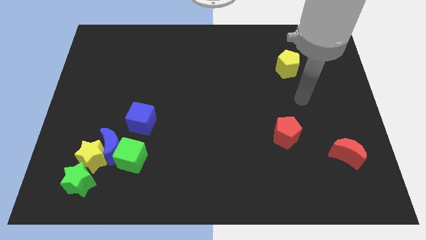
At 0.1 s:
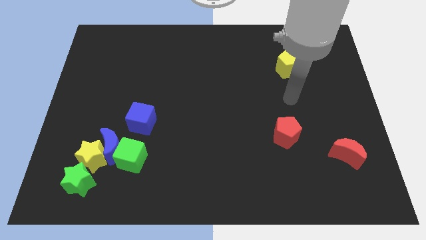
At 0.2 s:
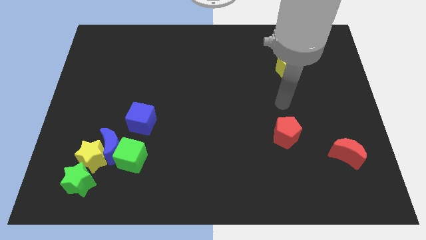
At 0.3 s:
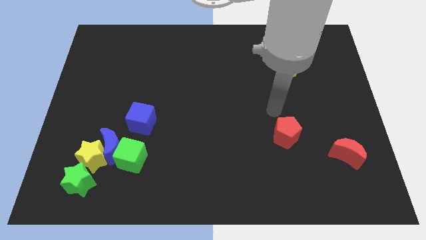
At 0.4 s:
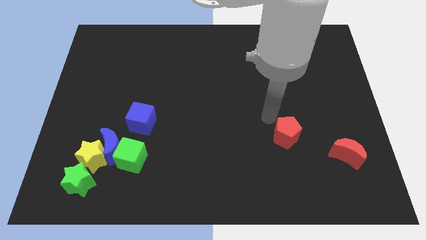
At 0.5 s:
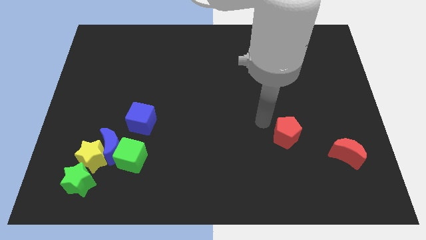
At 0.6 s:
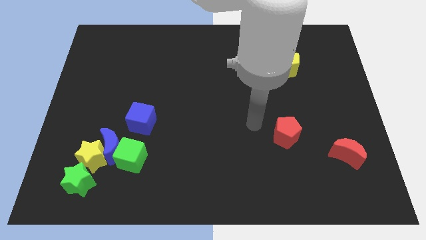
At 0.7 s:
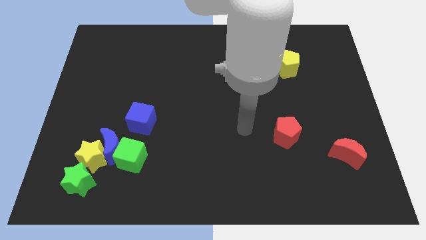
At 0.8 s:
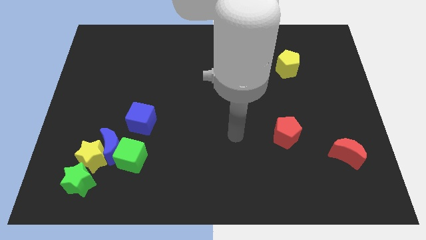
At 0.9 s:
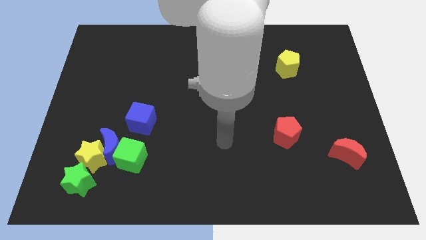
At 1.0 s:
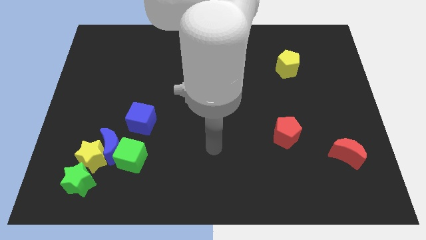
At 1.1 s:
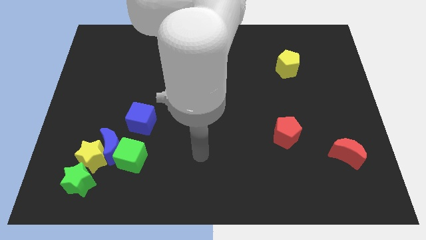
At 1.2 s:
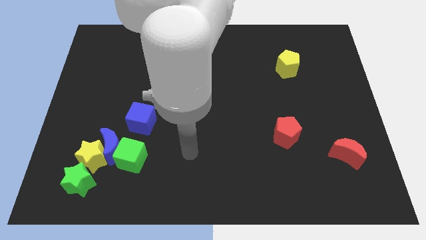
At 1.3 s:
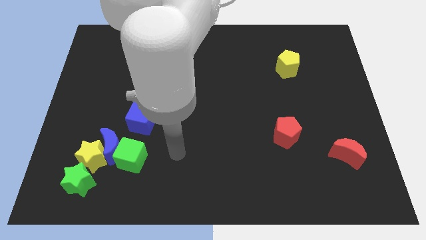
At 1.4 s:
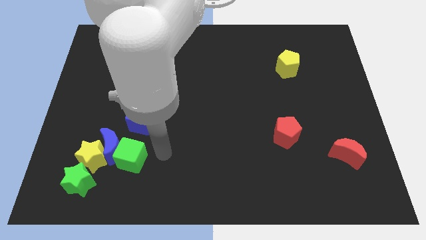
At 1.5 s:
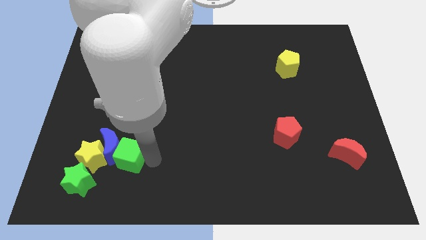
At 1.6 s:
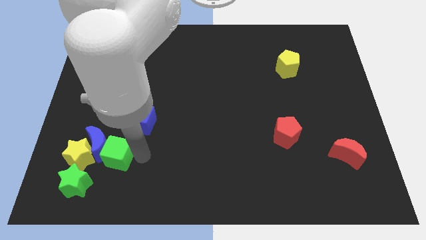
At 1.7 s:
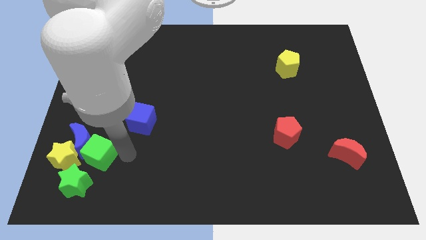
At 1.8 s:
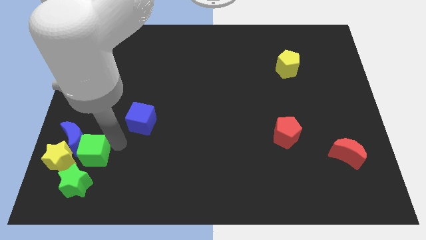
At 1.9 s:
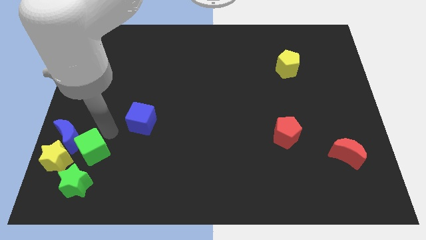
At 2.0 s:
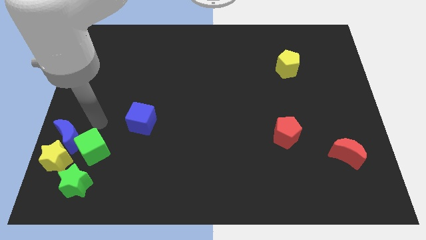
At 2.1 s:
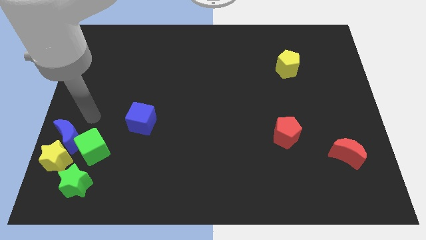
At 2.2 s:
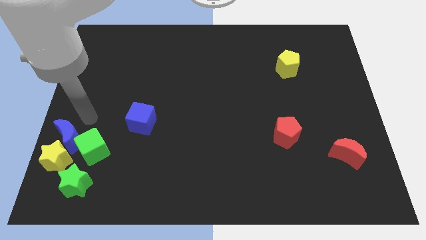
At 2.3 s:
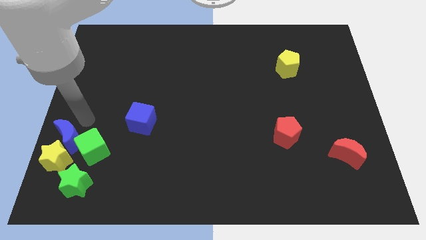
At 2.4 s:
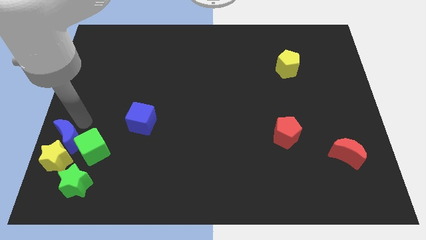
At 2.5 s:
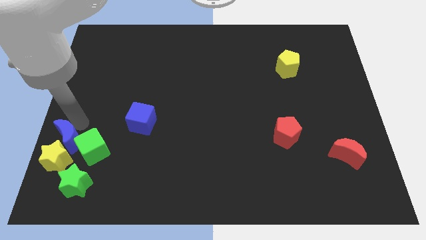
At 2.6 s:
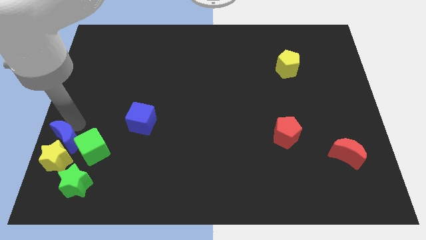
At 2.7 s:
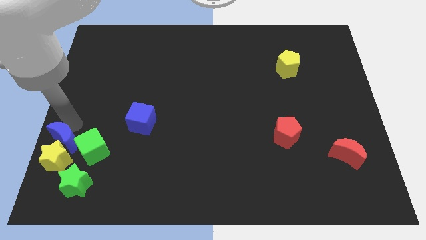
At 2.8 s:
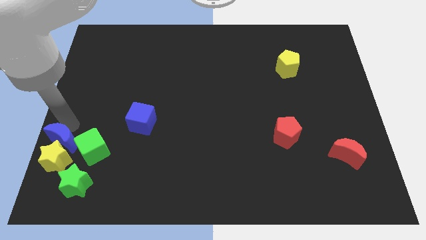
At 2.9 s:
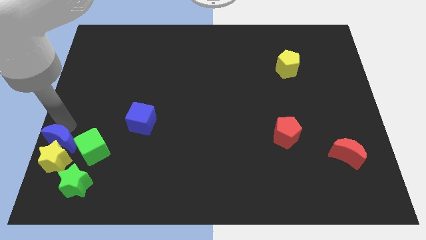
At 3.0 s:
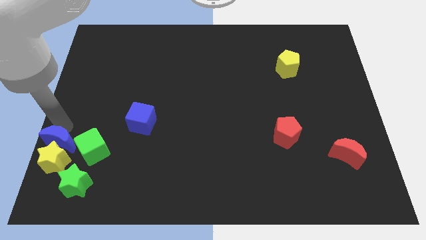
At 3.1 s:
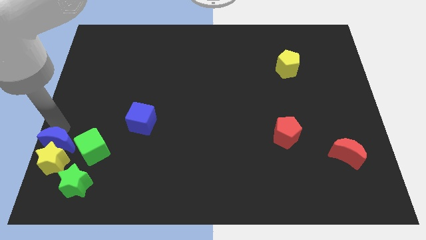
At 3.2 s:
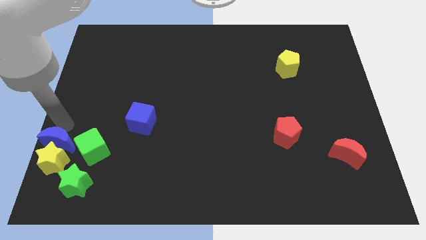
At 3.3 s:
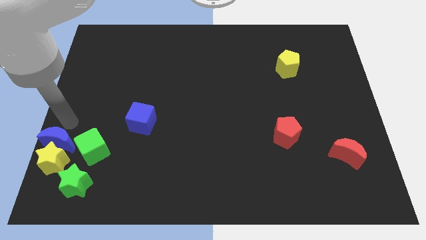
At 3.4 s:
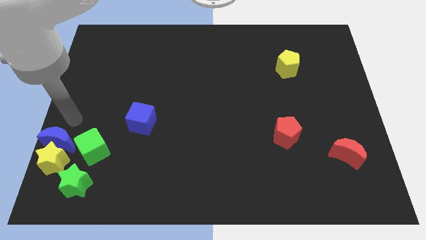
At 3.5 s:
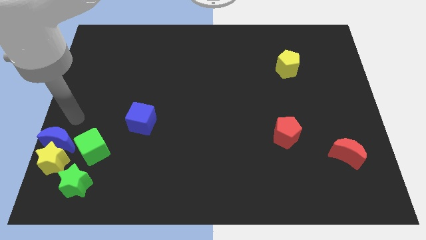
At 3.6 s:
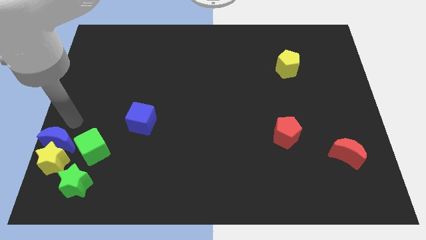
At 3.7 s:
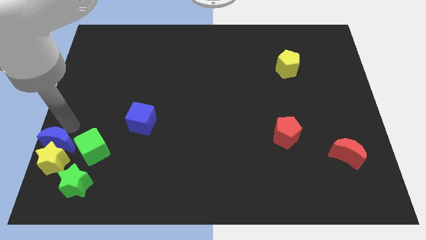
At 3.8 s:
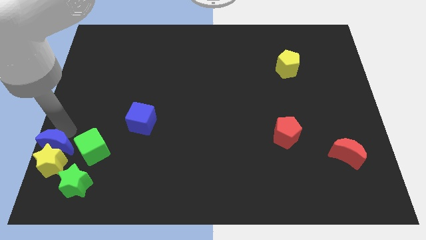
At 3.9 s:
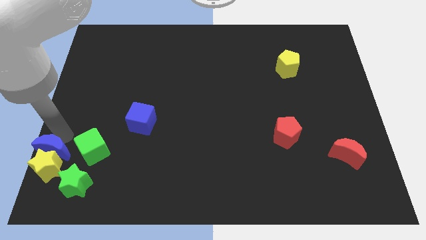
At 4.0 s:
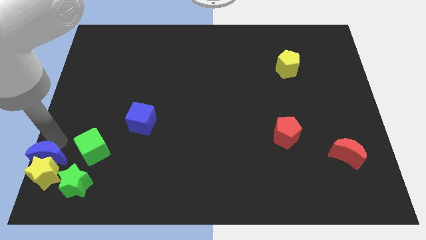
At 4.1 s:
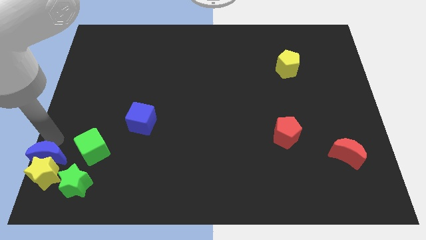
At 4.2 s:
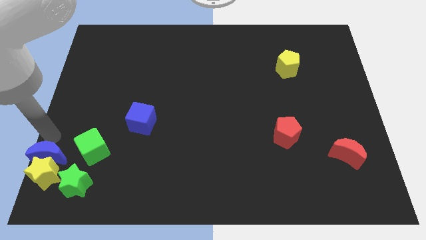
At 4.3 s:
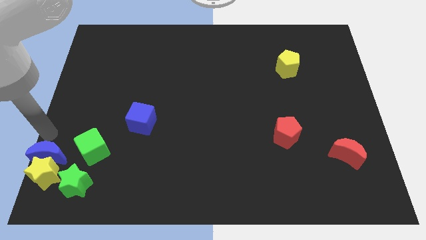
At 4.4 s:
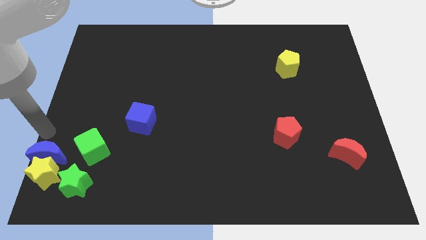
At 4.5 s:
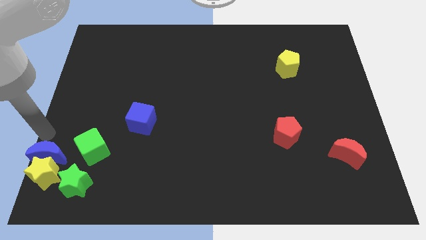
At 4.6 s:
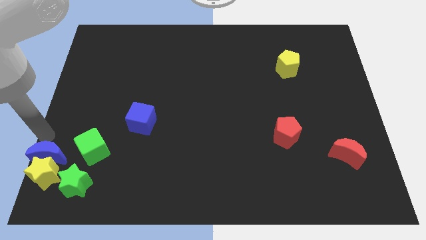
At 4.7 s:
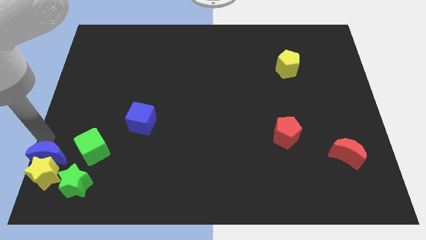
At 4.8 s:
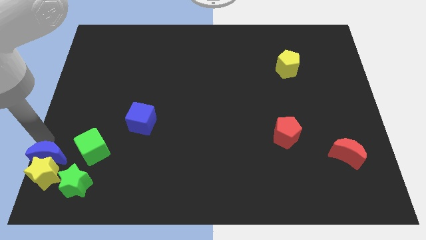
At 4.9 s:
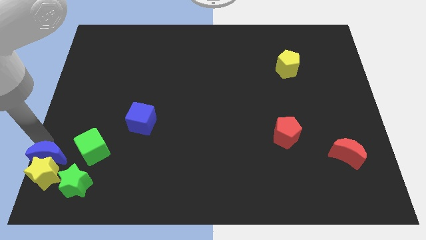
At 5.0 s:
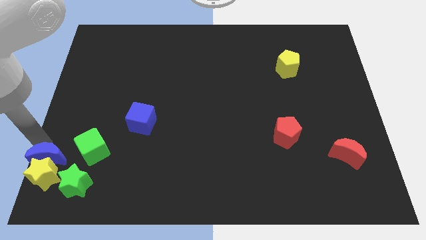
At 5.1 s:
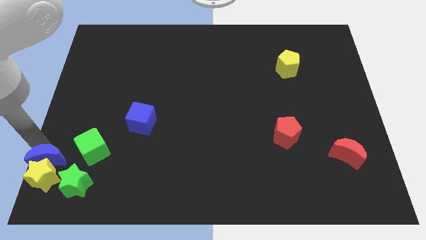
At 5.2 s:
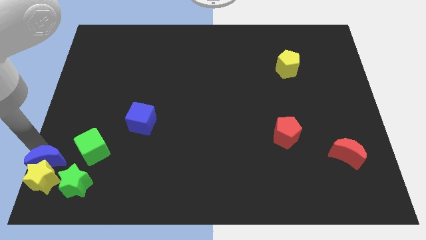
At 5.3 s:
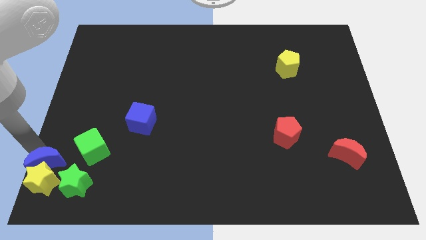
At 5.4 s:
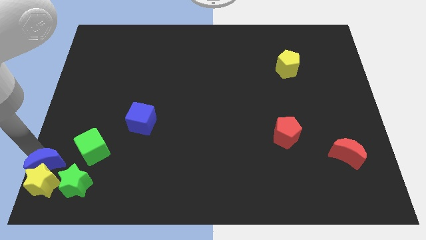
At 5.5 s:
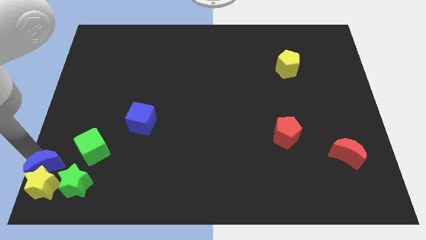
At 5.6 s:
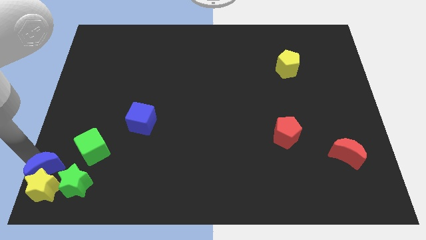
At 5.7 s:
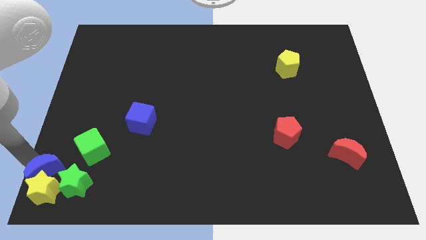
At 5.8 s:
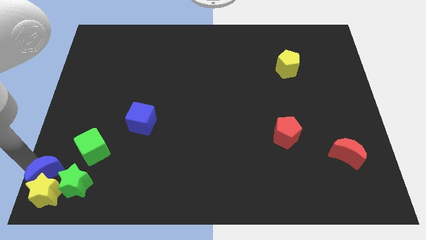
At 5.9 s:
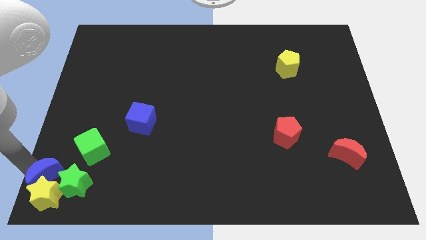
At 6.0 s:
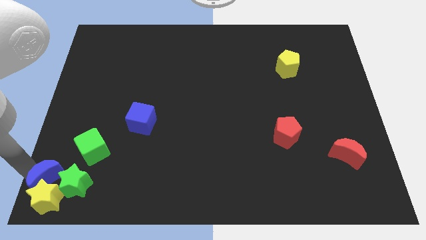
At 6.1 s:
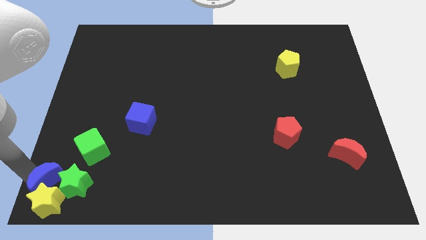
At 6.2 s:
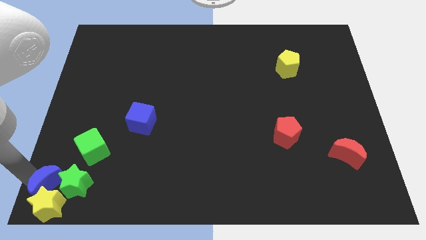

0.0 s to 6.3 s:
push the blue moon next to the green star
